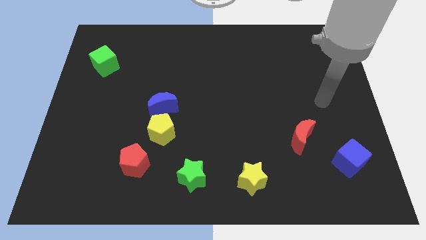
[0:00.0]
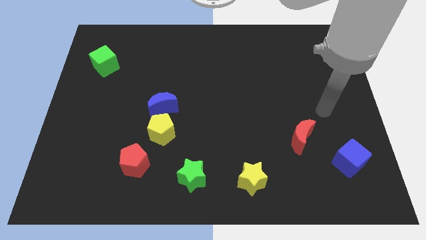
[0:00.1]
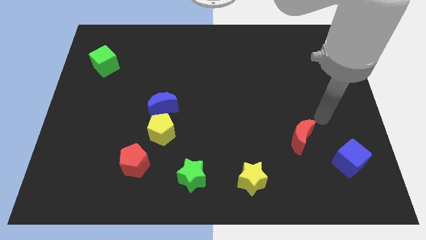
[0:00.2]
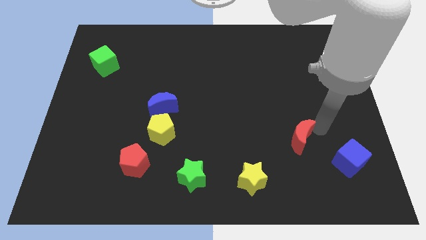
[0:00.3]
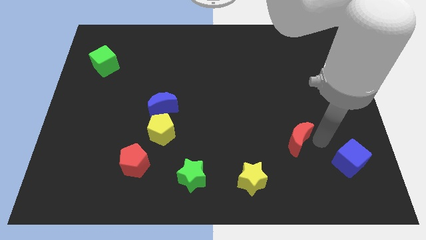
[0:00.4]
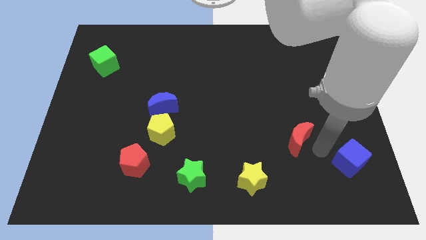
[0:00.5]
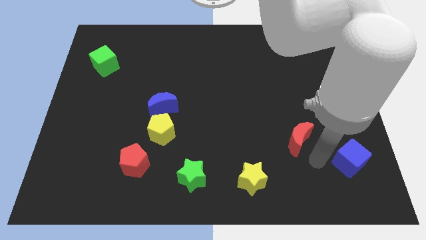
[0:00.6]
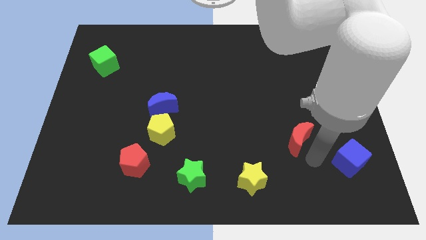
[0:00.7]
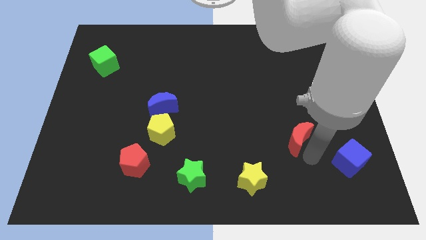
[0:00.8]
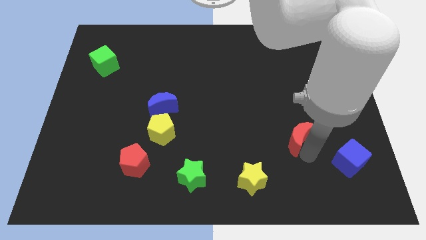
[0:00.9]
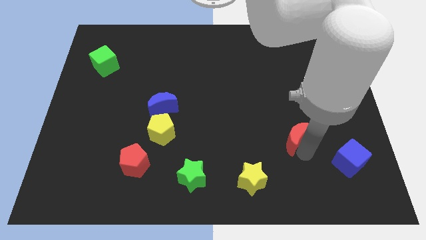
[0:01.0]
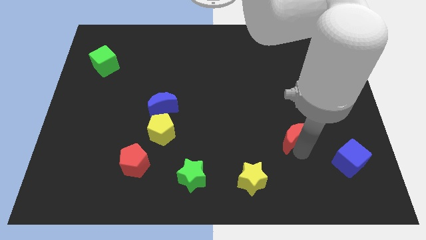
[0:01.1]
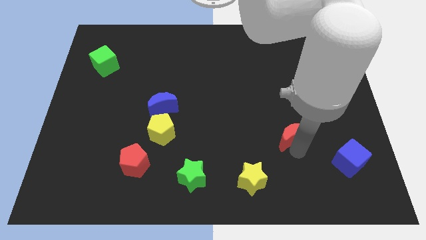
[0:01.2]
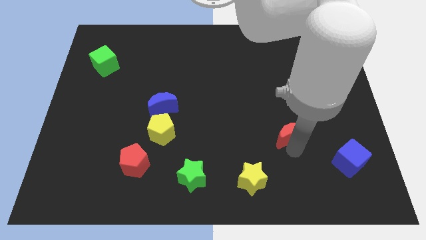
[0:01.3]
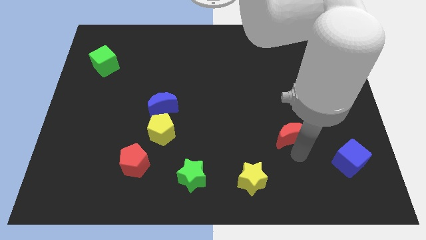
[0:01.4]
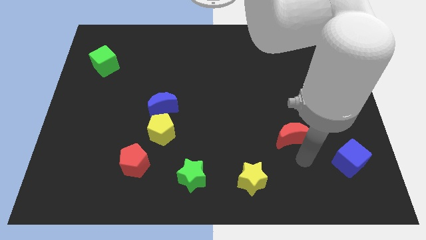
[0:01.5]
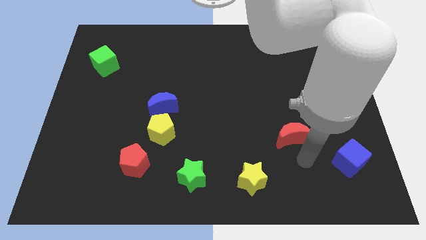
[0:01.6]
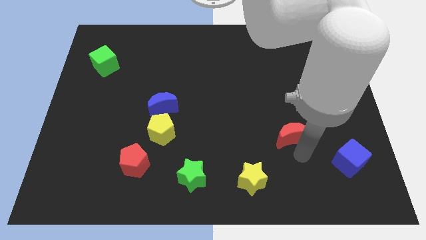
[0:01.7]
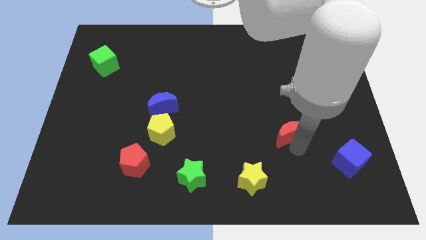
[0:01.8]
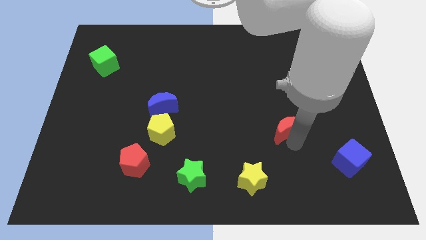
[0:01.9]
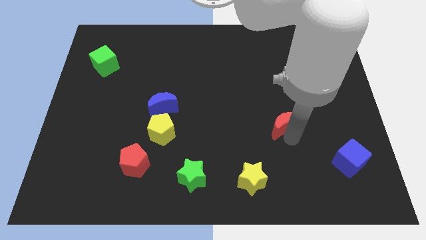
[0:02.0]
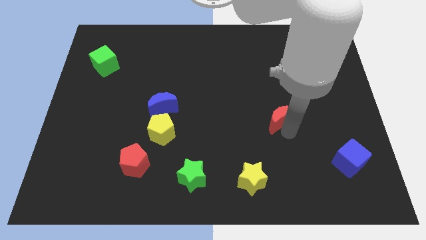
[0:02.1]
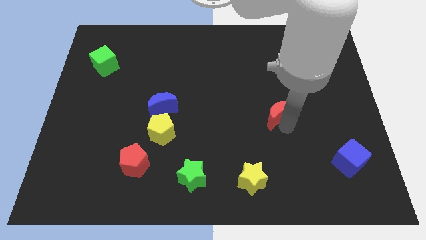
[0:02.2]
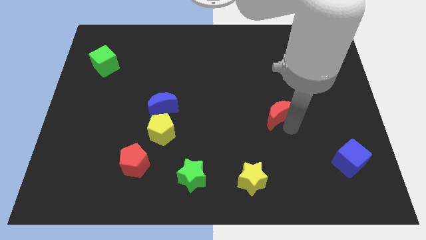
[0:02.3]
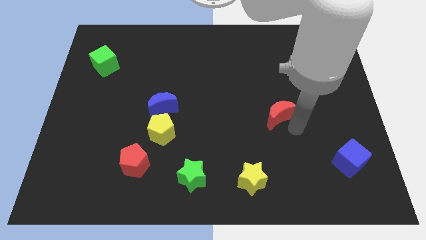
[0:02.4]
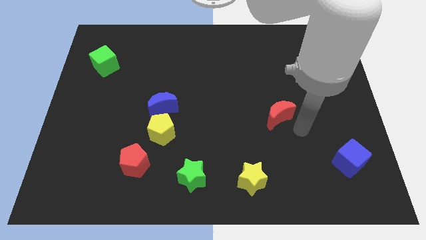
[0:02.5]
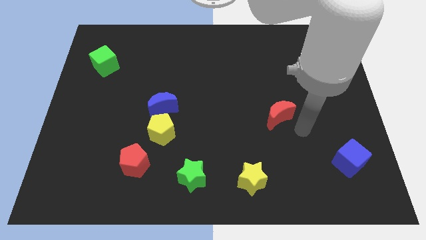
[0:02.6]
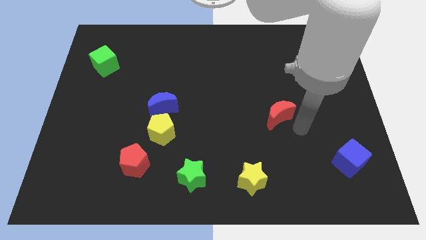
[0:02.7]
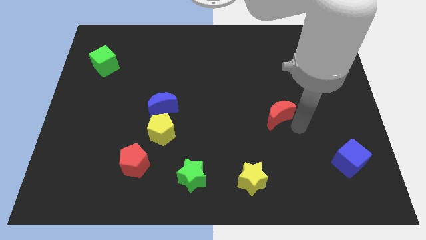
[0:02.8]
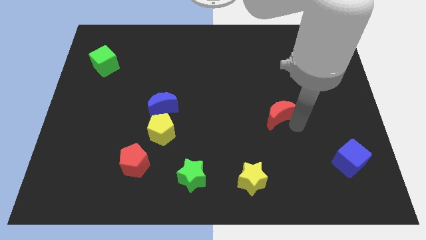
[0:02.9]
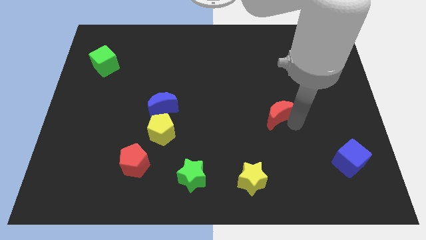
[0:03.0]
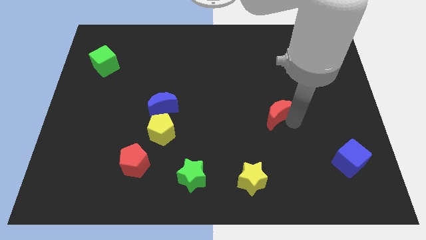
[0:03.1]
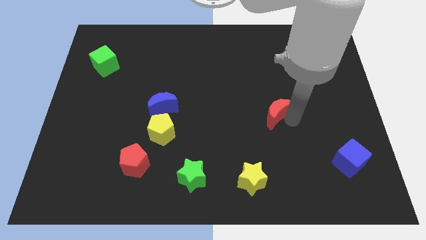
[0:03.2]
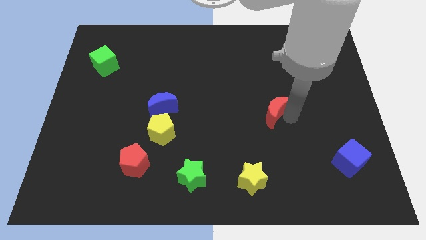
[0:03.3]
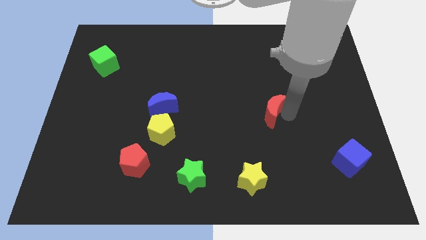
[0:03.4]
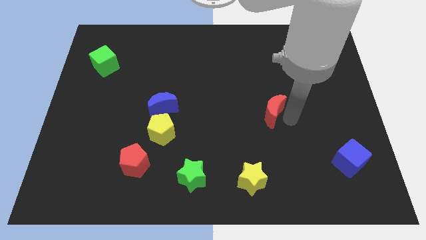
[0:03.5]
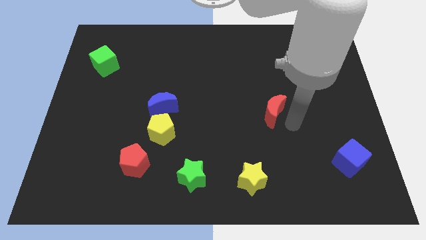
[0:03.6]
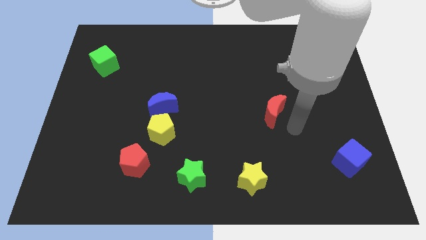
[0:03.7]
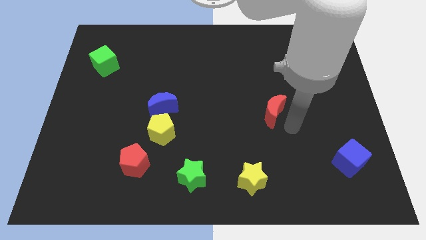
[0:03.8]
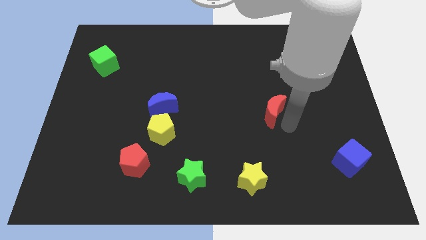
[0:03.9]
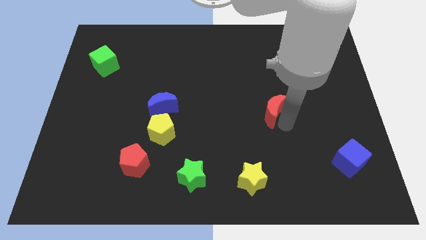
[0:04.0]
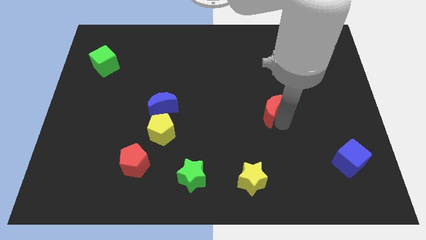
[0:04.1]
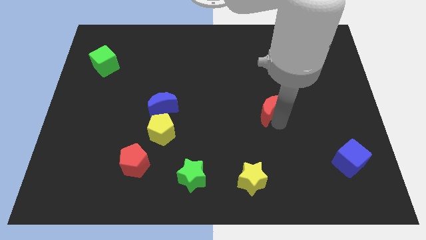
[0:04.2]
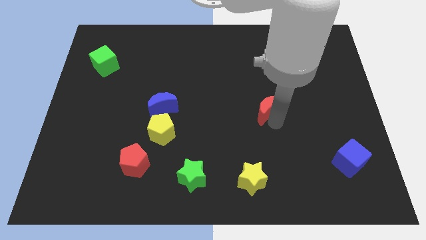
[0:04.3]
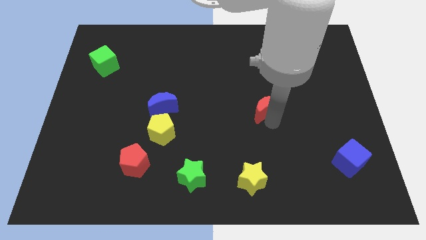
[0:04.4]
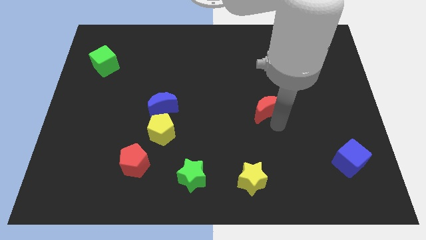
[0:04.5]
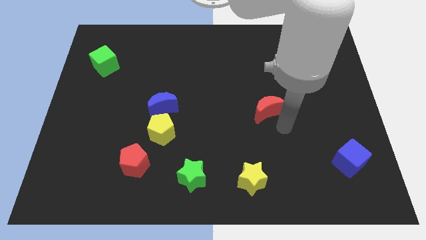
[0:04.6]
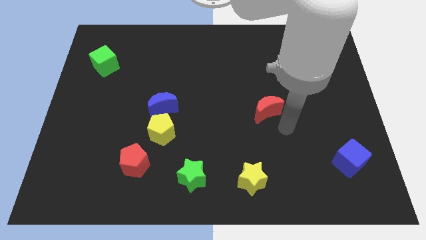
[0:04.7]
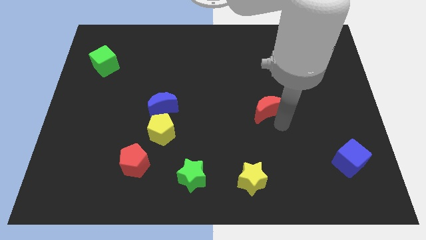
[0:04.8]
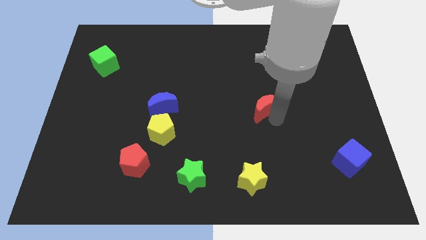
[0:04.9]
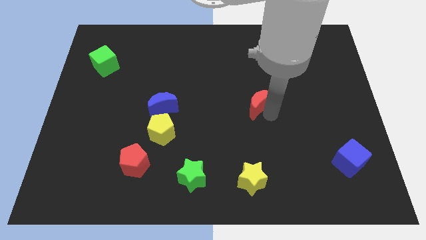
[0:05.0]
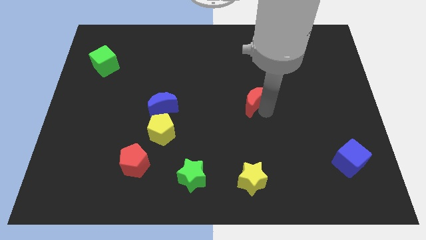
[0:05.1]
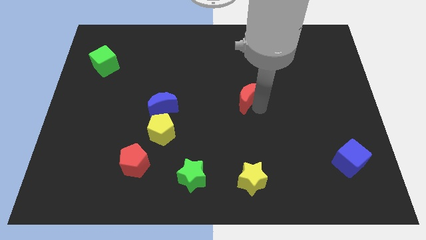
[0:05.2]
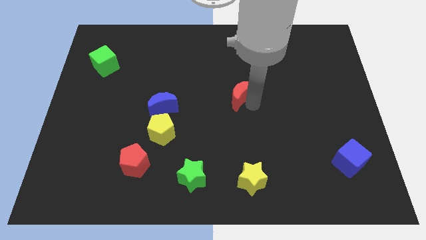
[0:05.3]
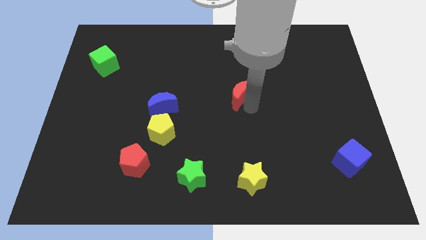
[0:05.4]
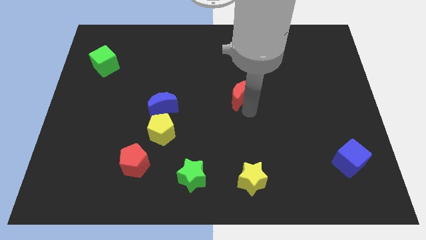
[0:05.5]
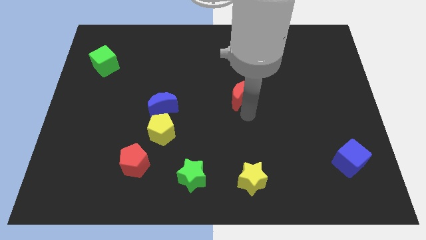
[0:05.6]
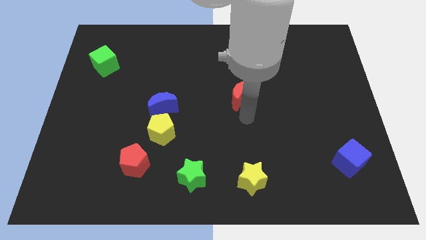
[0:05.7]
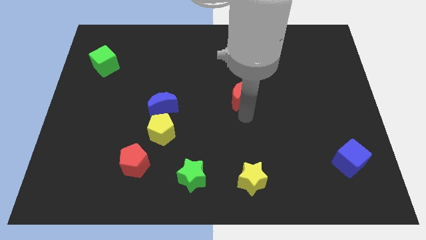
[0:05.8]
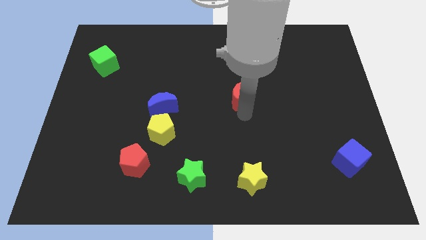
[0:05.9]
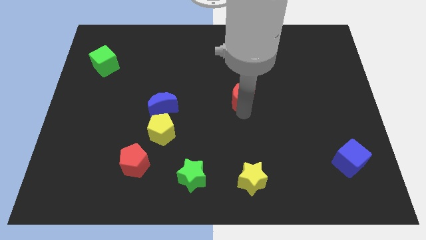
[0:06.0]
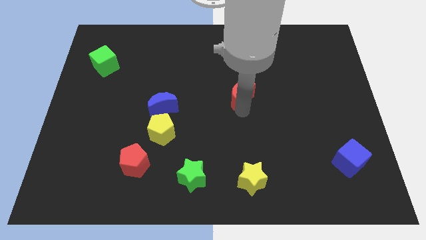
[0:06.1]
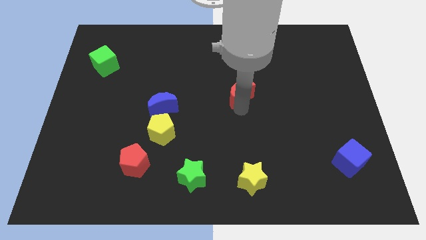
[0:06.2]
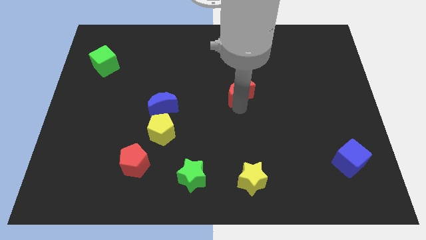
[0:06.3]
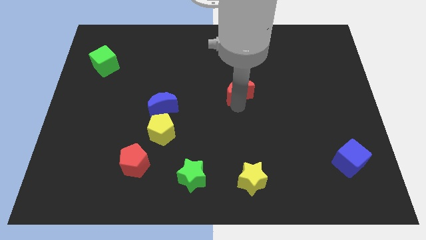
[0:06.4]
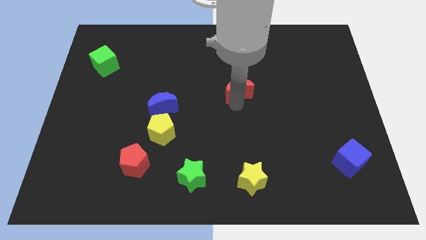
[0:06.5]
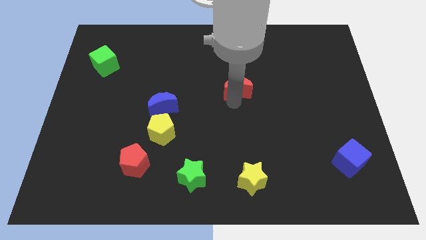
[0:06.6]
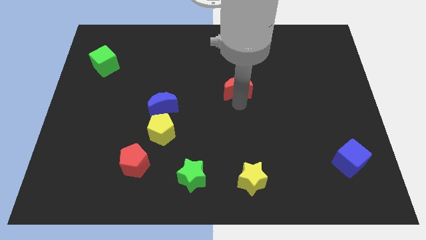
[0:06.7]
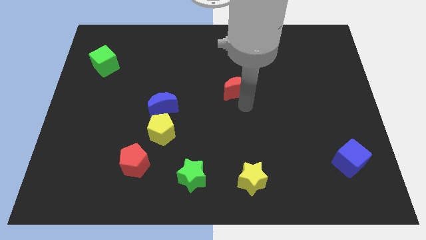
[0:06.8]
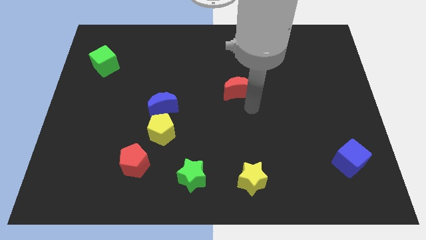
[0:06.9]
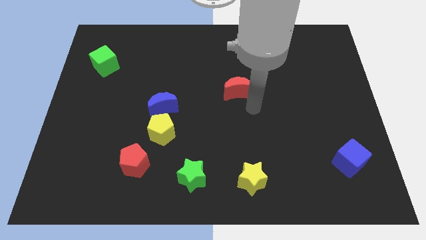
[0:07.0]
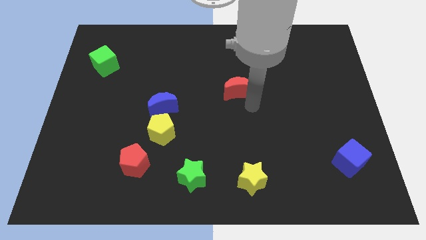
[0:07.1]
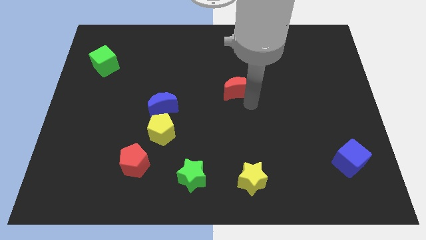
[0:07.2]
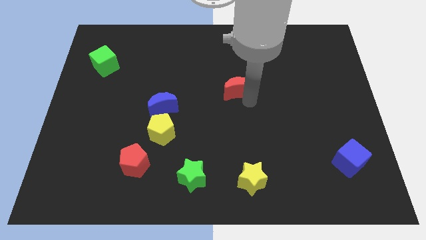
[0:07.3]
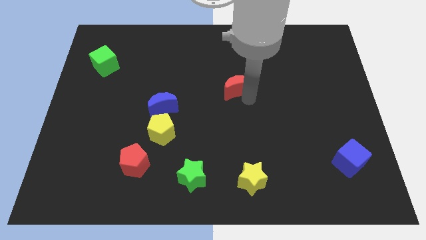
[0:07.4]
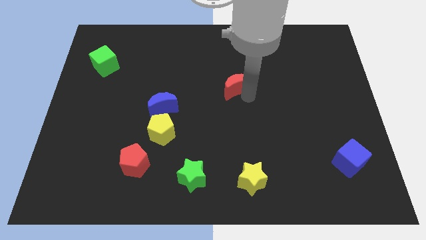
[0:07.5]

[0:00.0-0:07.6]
slide the red moon up and then to the left

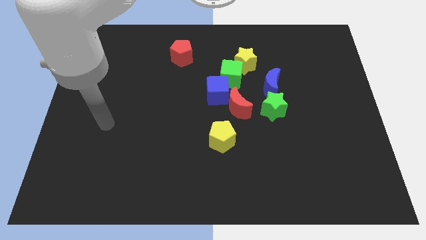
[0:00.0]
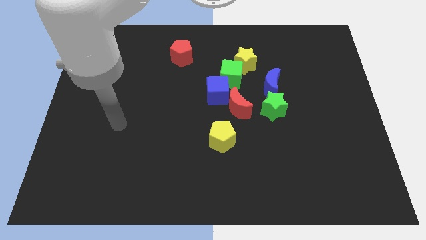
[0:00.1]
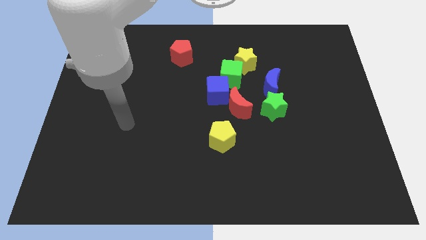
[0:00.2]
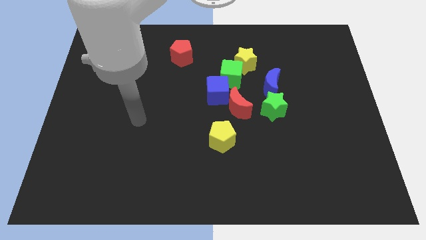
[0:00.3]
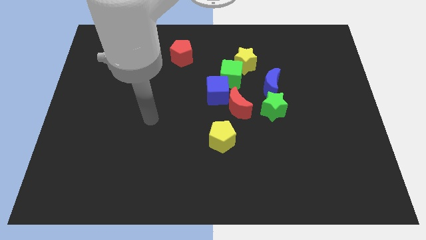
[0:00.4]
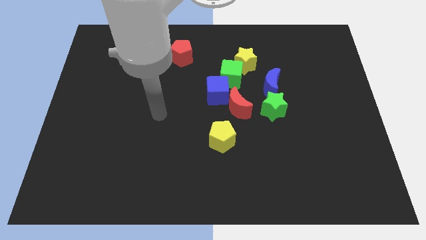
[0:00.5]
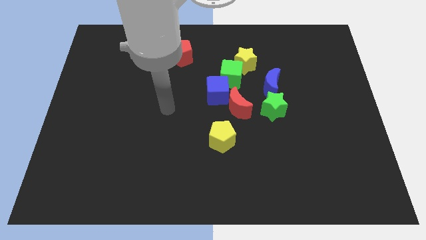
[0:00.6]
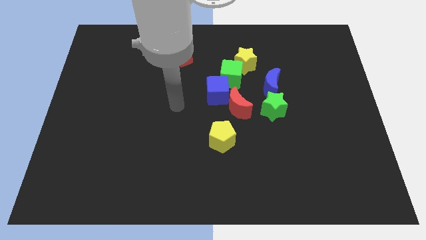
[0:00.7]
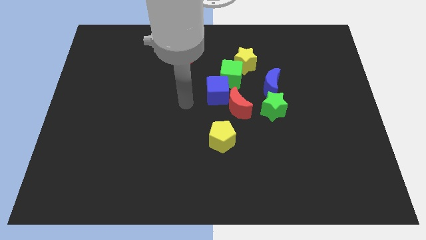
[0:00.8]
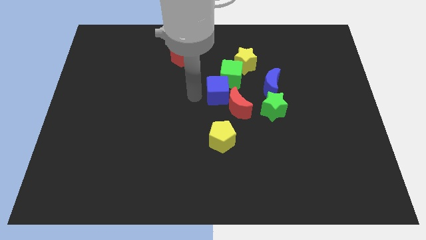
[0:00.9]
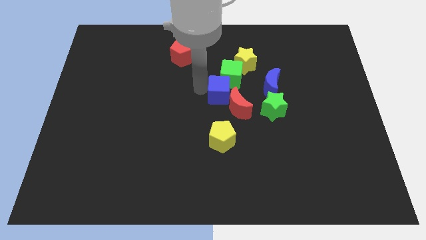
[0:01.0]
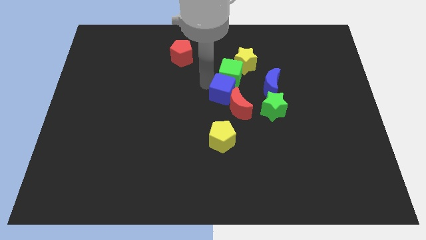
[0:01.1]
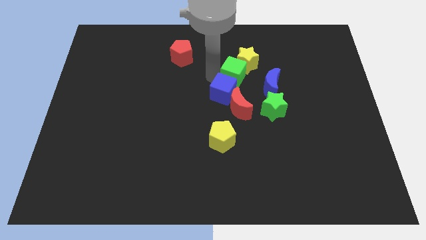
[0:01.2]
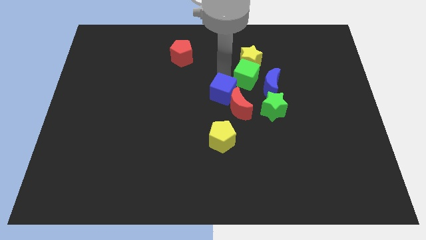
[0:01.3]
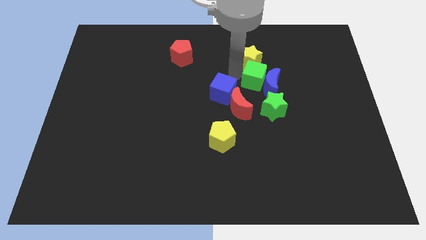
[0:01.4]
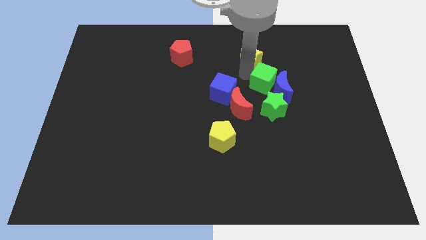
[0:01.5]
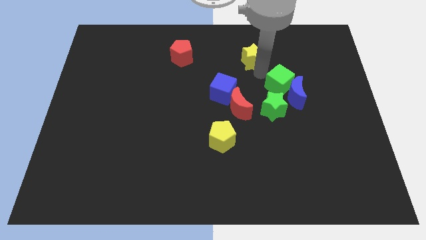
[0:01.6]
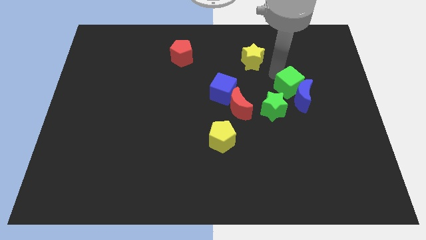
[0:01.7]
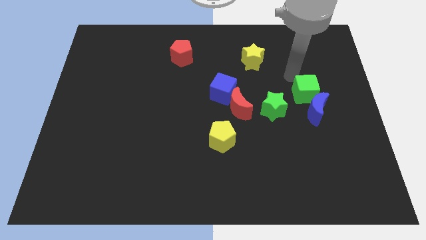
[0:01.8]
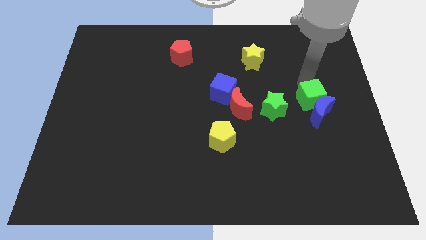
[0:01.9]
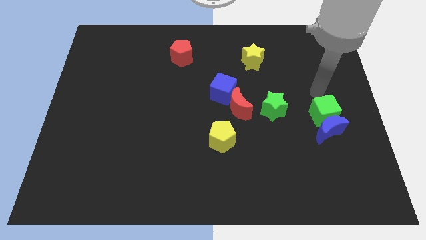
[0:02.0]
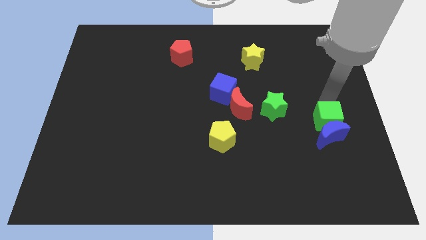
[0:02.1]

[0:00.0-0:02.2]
push the blue moon a little bit down
